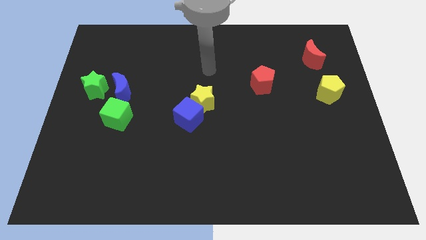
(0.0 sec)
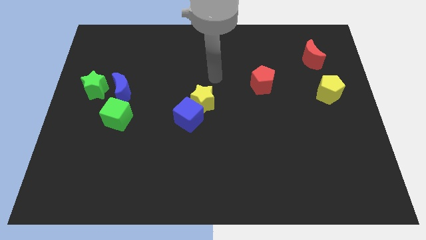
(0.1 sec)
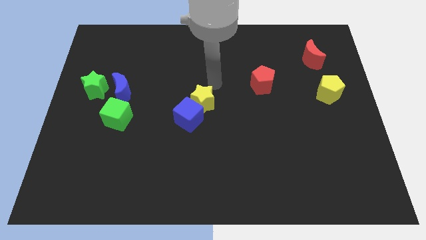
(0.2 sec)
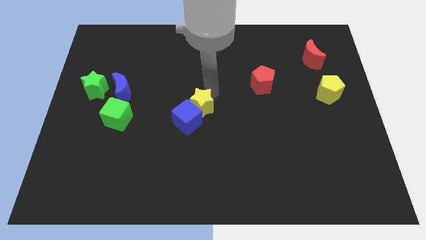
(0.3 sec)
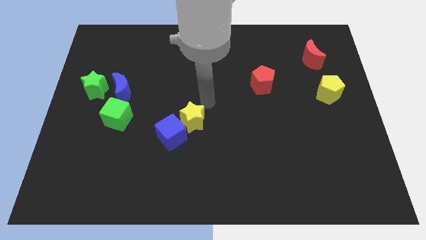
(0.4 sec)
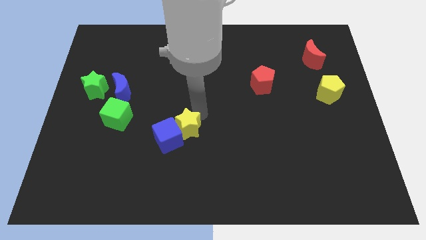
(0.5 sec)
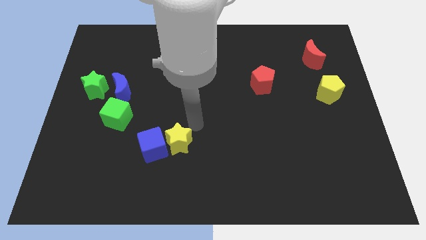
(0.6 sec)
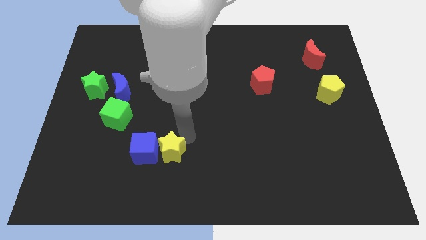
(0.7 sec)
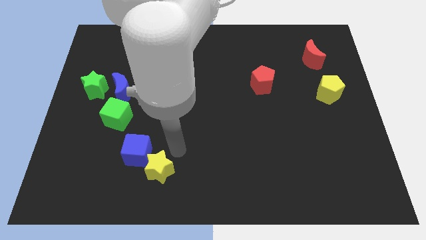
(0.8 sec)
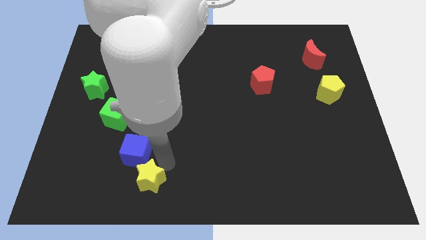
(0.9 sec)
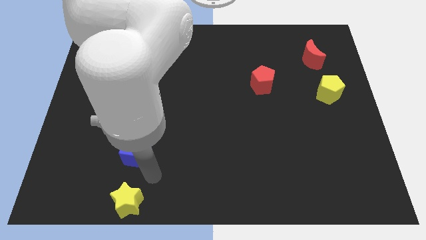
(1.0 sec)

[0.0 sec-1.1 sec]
move the blue cube away from the yellow star

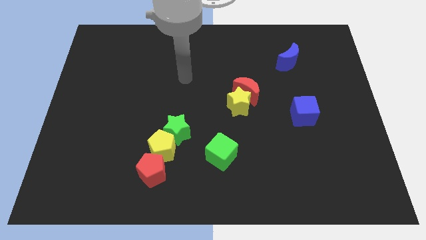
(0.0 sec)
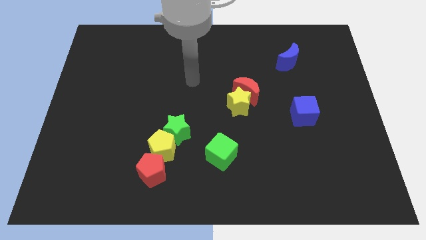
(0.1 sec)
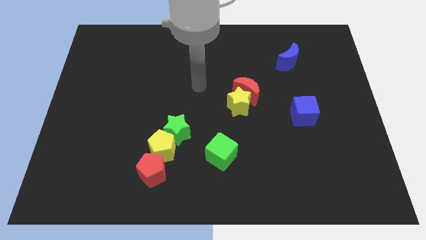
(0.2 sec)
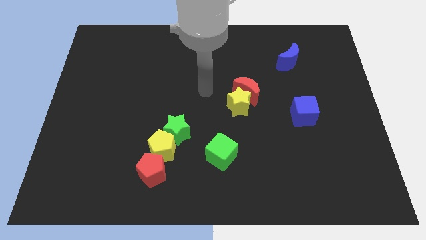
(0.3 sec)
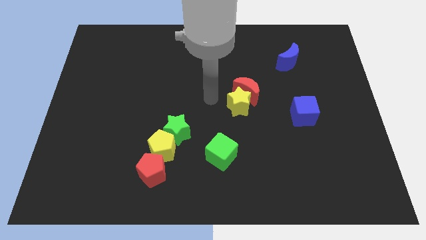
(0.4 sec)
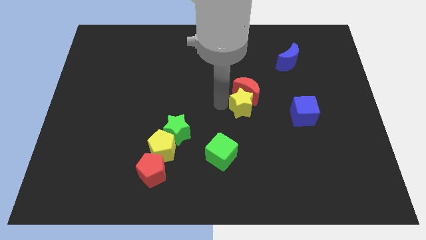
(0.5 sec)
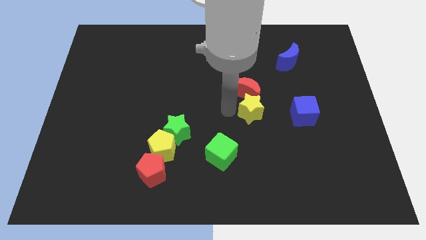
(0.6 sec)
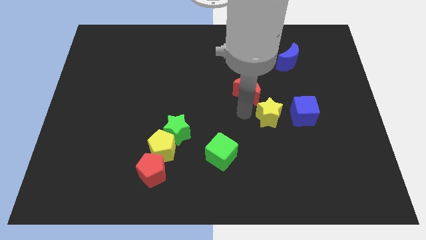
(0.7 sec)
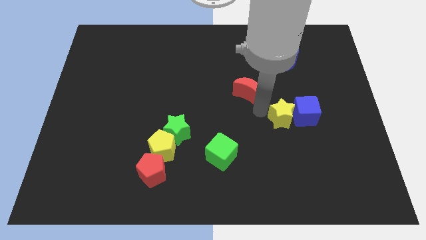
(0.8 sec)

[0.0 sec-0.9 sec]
pull the red moon apart from the yellow star

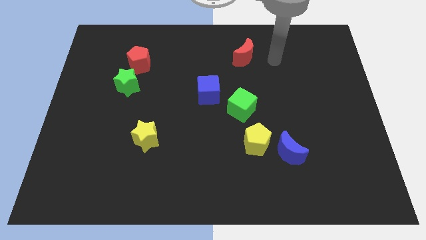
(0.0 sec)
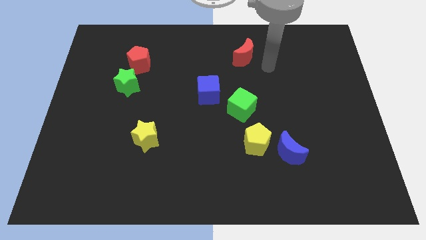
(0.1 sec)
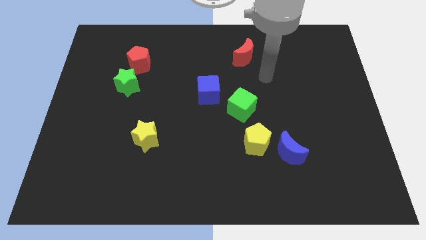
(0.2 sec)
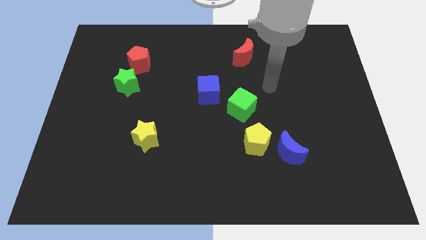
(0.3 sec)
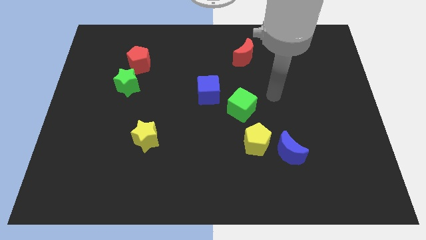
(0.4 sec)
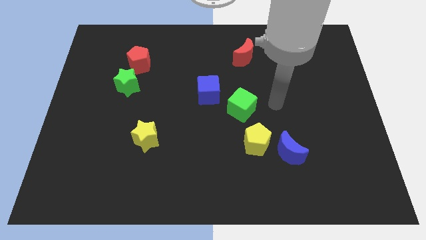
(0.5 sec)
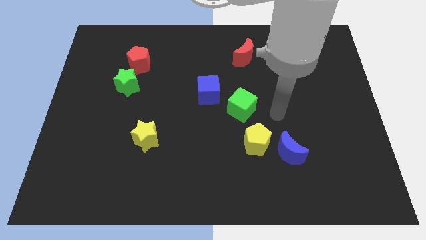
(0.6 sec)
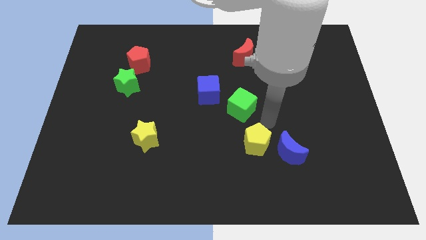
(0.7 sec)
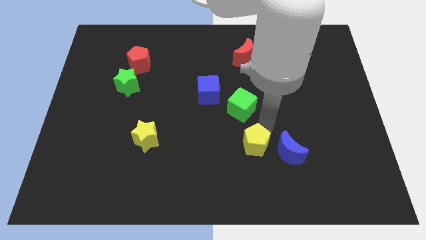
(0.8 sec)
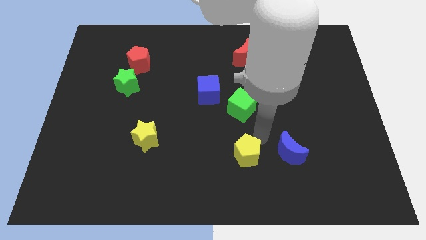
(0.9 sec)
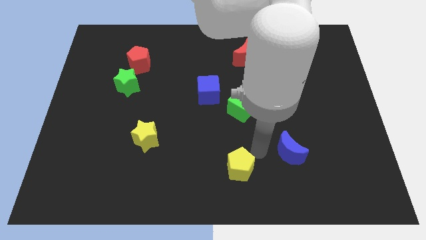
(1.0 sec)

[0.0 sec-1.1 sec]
move the blue moon away from the yellow pentagon

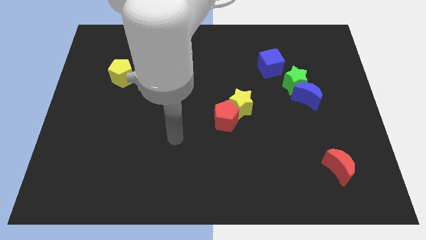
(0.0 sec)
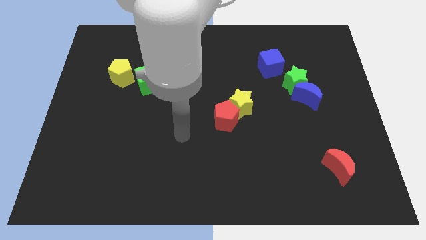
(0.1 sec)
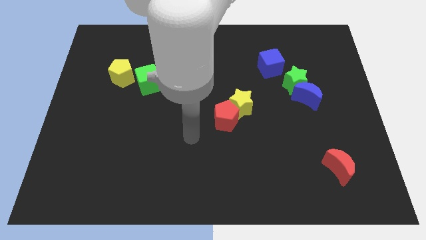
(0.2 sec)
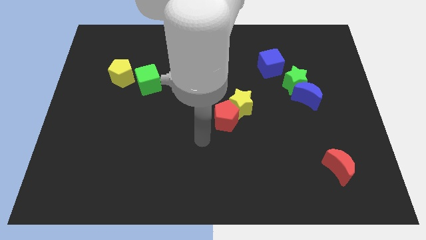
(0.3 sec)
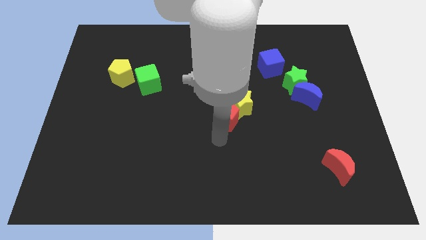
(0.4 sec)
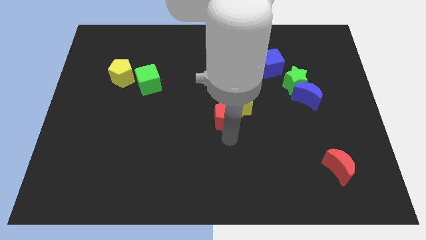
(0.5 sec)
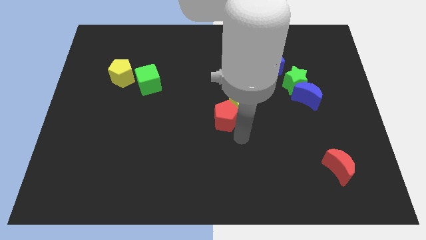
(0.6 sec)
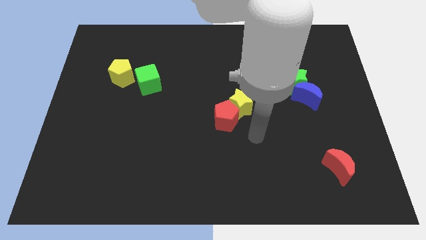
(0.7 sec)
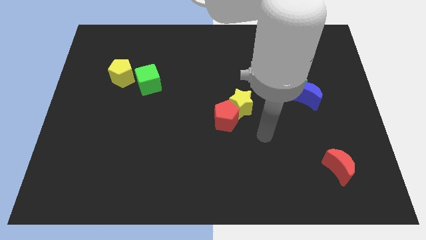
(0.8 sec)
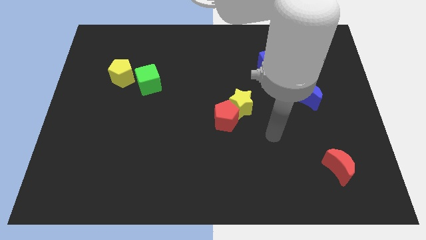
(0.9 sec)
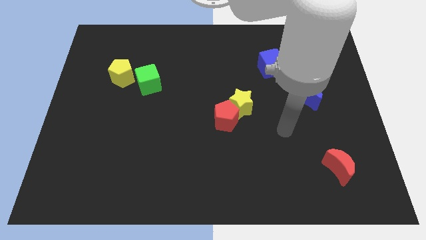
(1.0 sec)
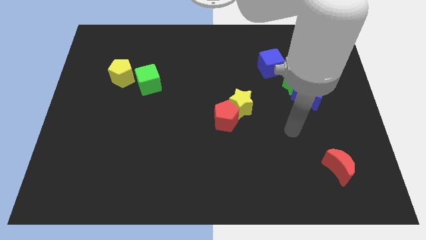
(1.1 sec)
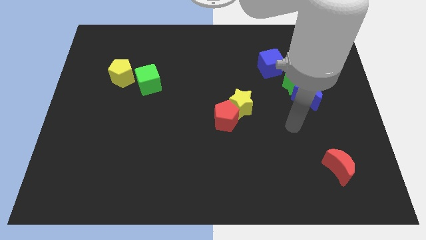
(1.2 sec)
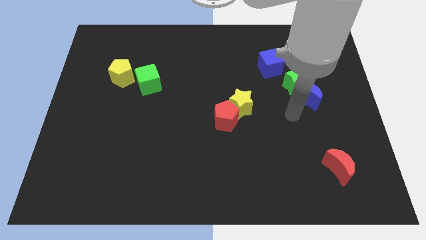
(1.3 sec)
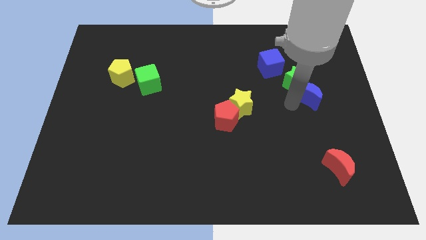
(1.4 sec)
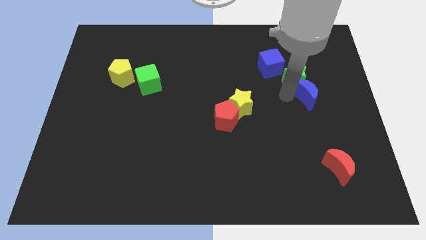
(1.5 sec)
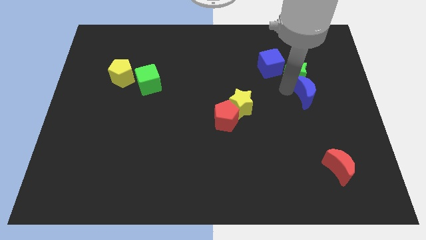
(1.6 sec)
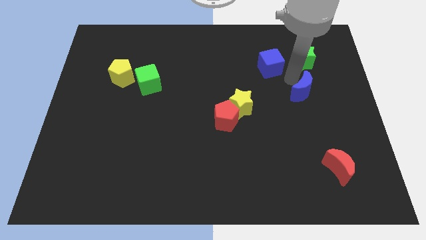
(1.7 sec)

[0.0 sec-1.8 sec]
pull the blue moon apart from the green star

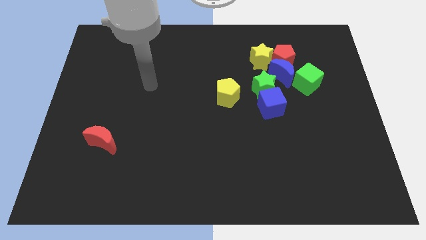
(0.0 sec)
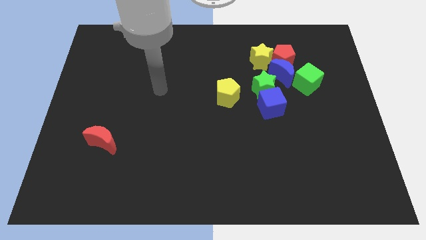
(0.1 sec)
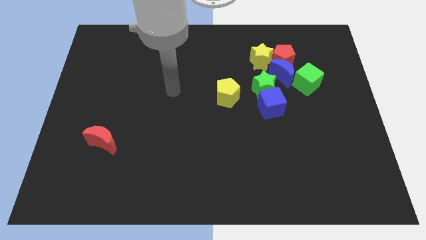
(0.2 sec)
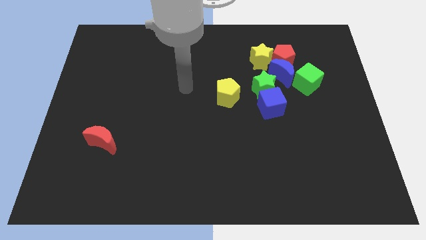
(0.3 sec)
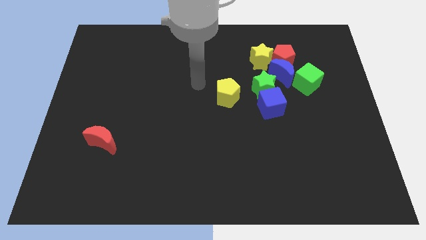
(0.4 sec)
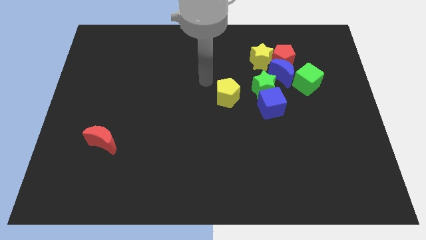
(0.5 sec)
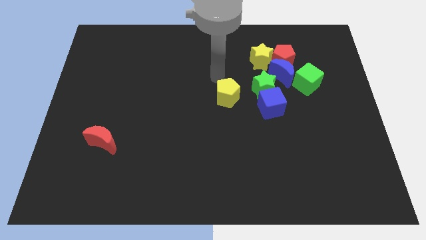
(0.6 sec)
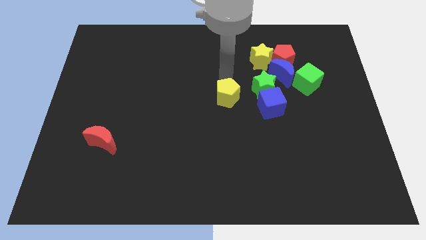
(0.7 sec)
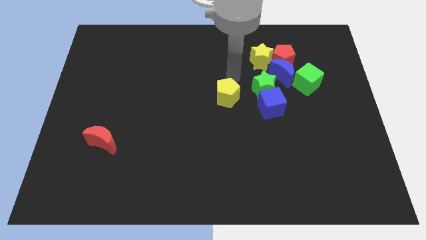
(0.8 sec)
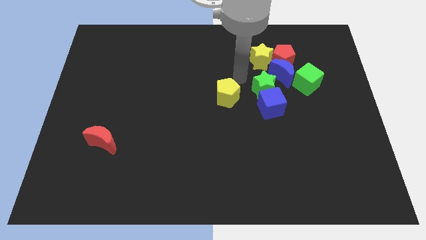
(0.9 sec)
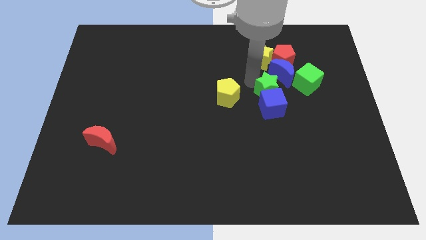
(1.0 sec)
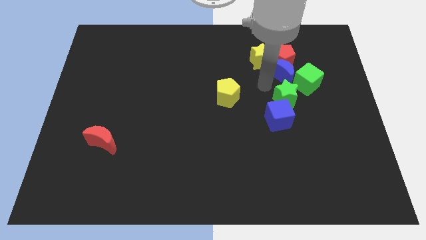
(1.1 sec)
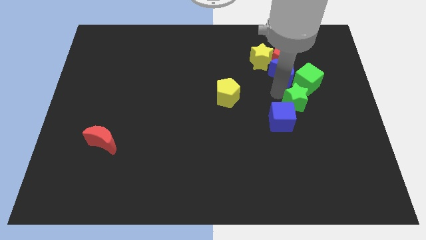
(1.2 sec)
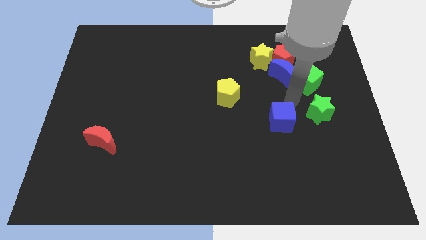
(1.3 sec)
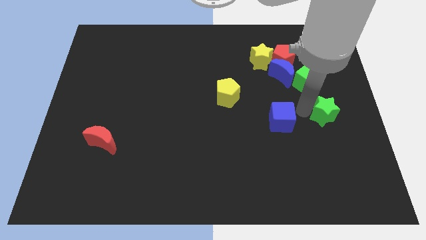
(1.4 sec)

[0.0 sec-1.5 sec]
move the blue cube away from the green star

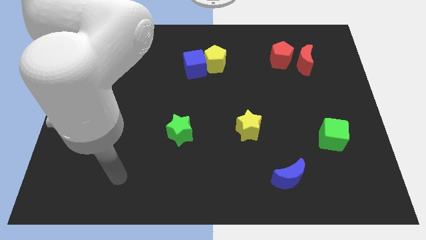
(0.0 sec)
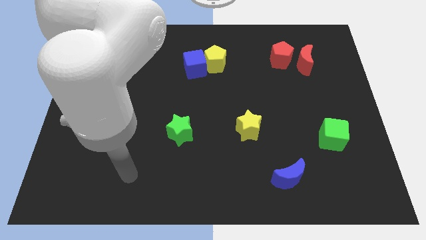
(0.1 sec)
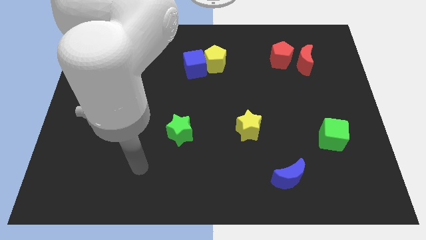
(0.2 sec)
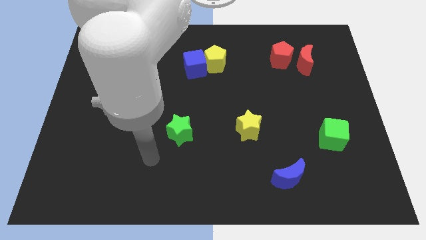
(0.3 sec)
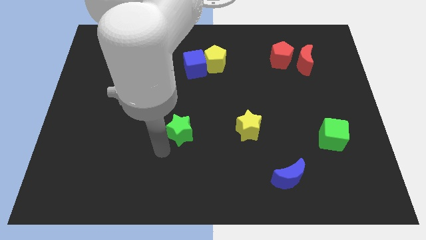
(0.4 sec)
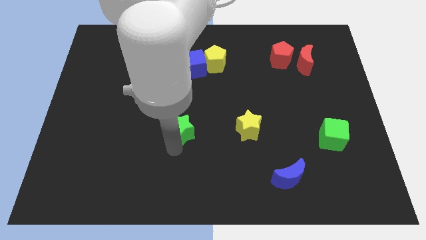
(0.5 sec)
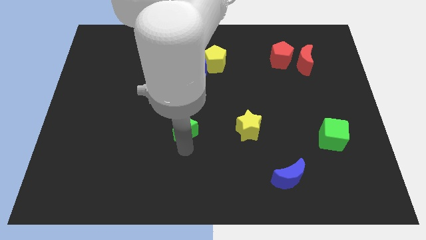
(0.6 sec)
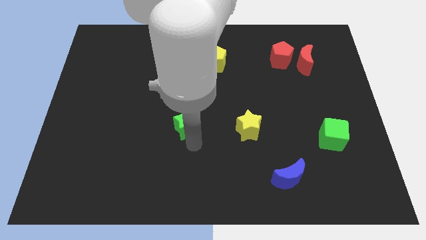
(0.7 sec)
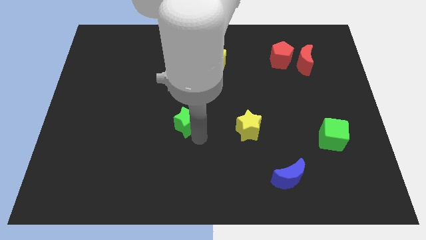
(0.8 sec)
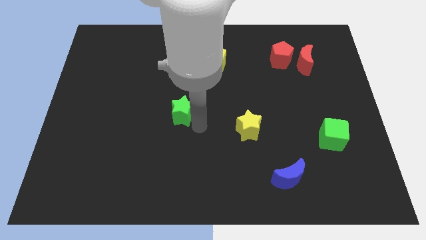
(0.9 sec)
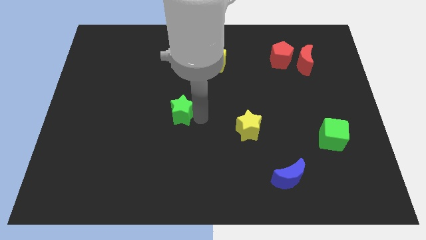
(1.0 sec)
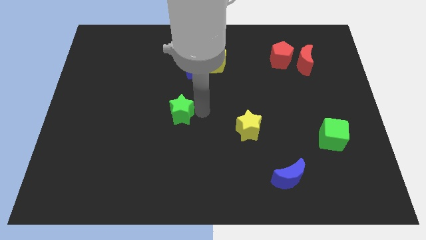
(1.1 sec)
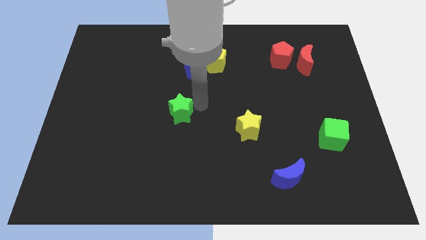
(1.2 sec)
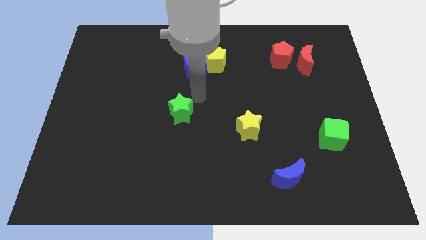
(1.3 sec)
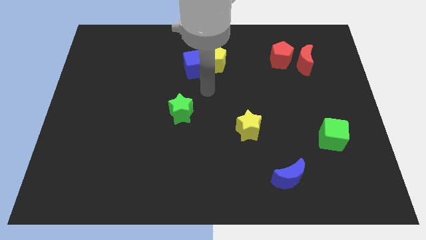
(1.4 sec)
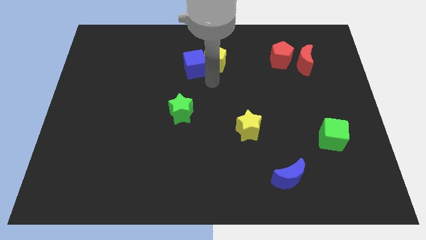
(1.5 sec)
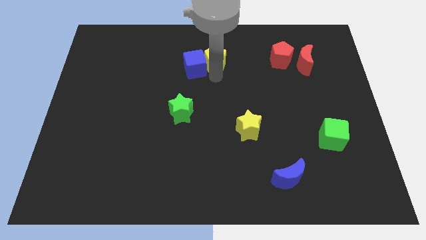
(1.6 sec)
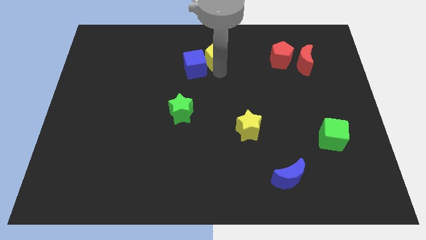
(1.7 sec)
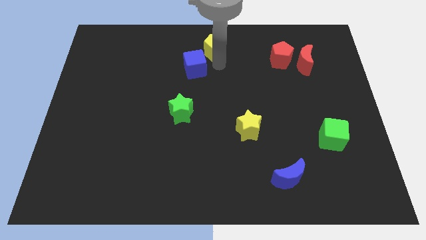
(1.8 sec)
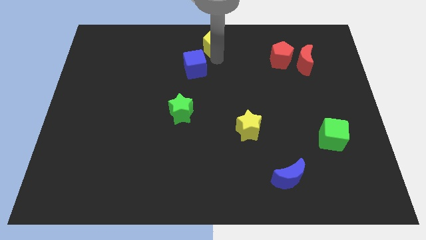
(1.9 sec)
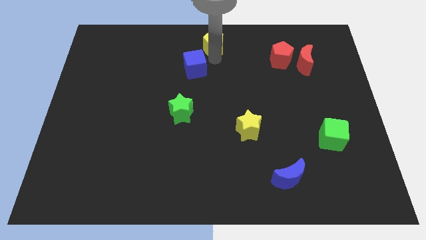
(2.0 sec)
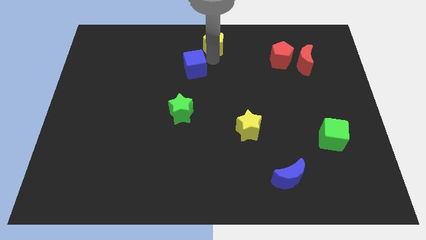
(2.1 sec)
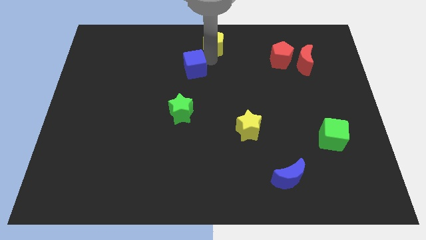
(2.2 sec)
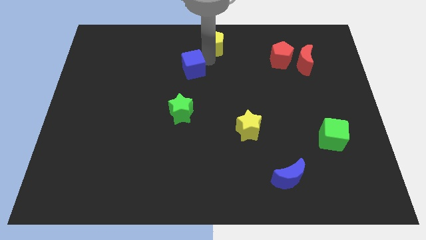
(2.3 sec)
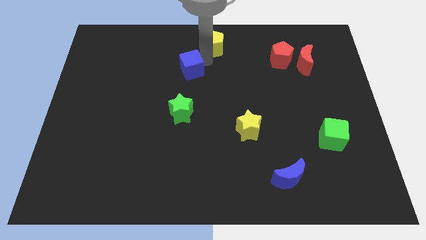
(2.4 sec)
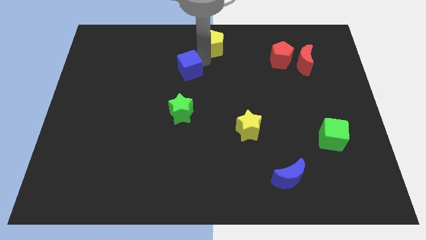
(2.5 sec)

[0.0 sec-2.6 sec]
pull the blue cube apart from the yellow pentagon
